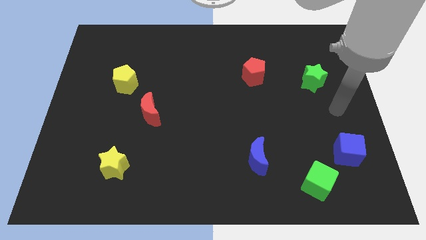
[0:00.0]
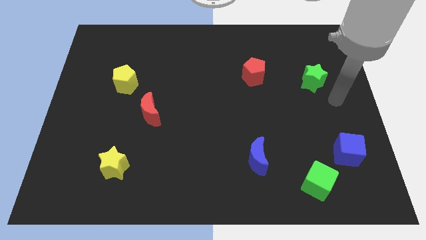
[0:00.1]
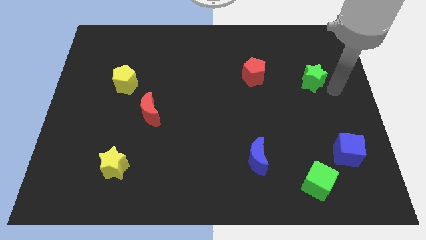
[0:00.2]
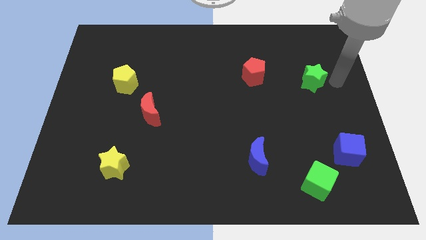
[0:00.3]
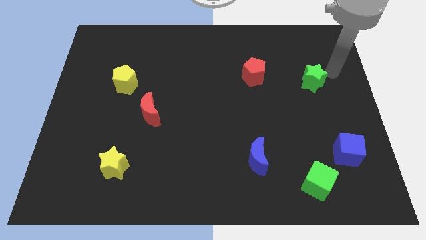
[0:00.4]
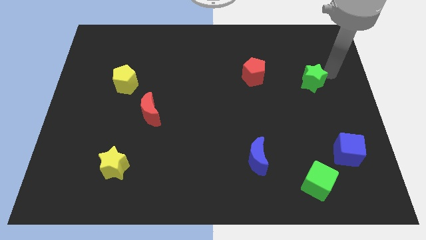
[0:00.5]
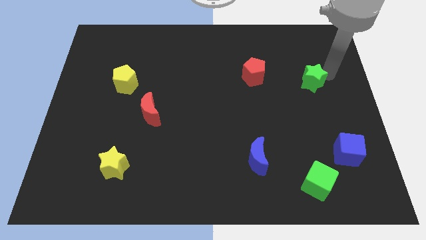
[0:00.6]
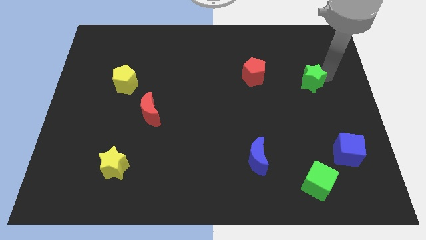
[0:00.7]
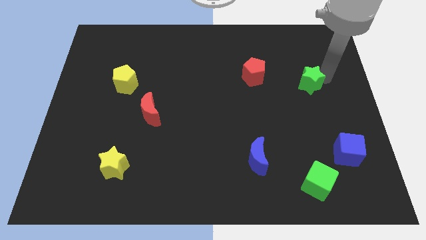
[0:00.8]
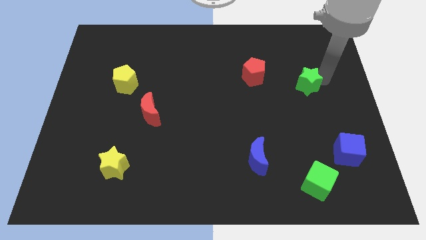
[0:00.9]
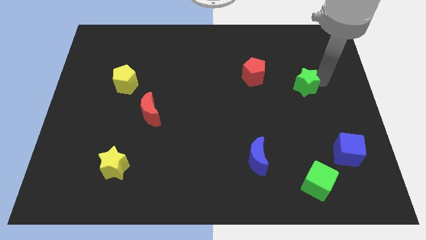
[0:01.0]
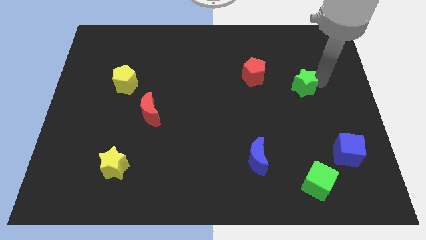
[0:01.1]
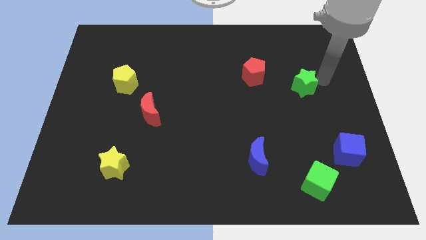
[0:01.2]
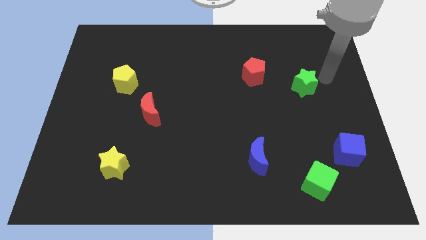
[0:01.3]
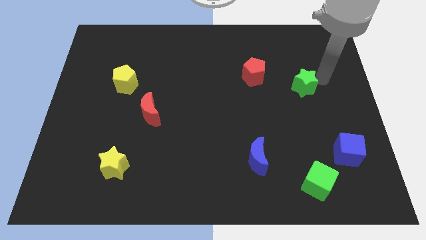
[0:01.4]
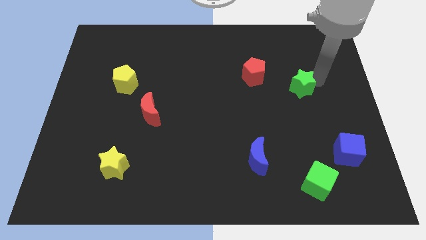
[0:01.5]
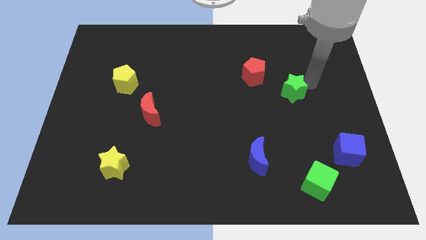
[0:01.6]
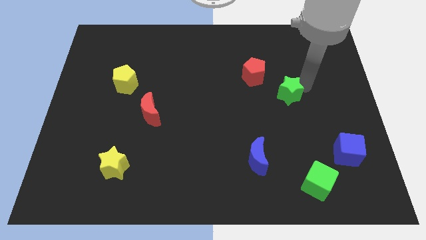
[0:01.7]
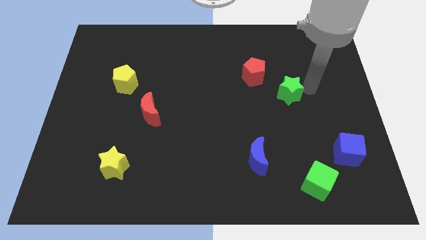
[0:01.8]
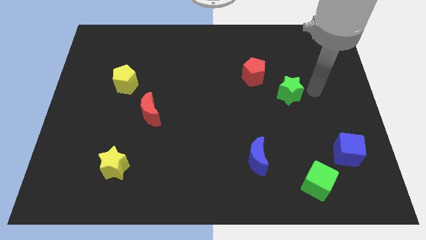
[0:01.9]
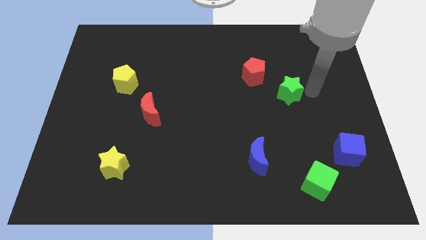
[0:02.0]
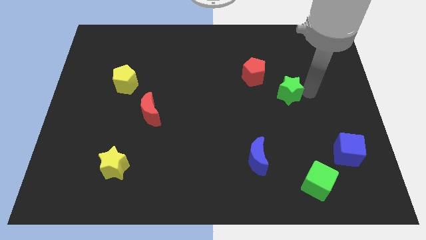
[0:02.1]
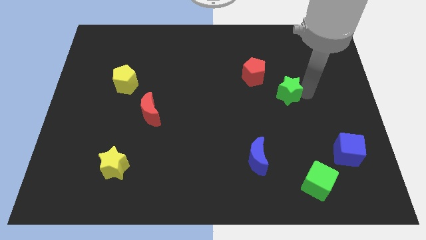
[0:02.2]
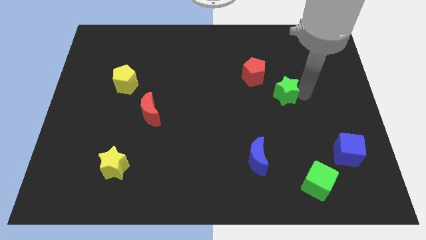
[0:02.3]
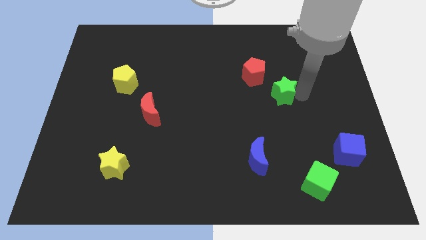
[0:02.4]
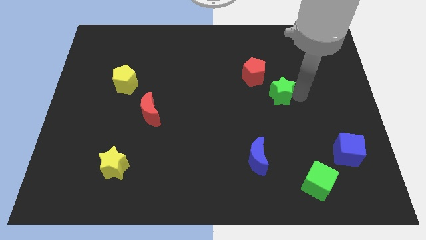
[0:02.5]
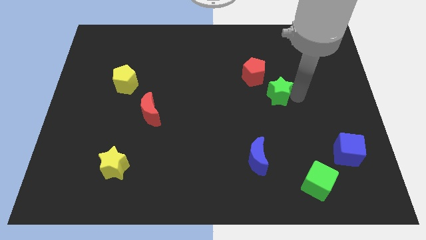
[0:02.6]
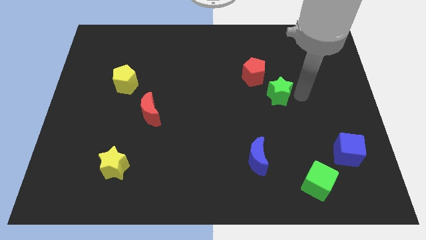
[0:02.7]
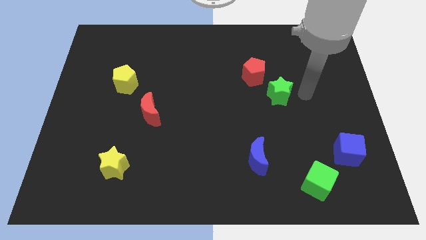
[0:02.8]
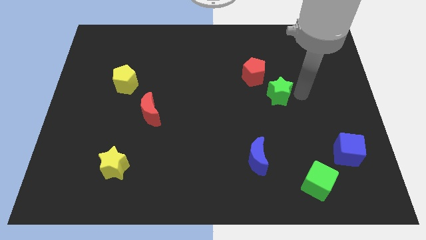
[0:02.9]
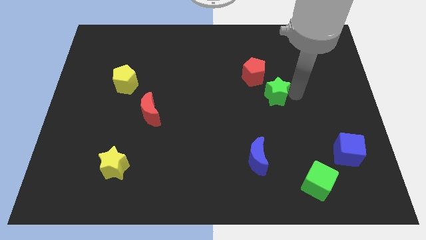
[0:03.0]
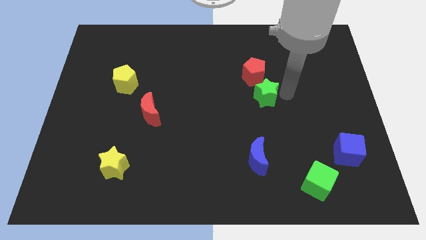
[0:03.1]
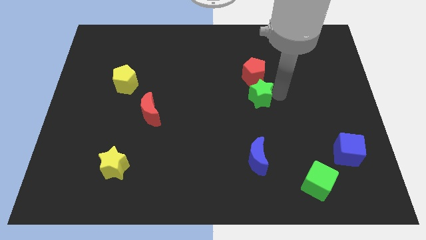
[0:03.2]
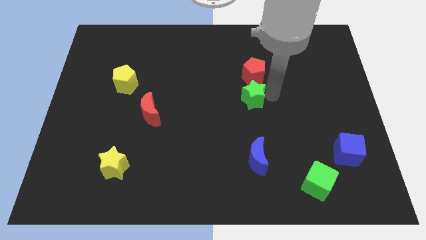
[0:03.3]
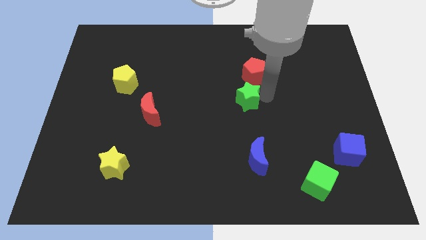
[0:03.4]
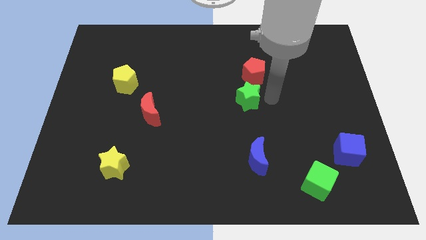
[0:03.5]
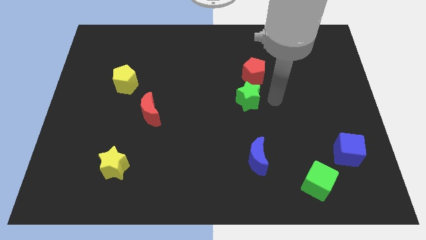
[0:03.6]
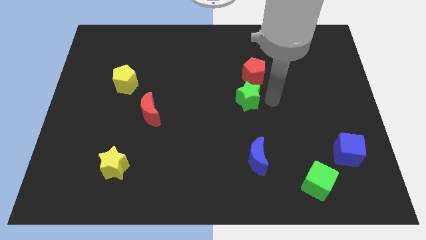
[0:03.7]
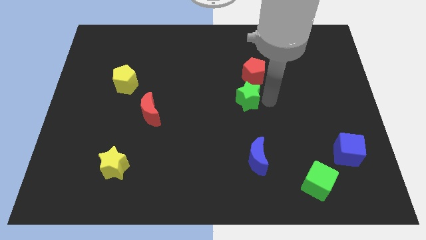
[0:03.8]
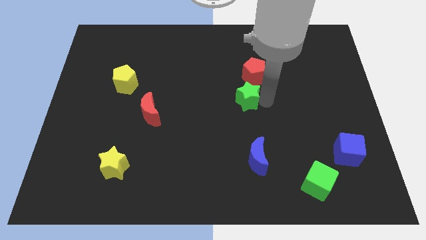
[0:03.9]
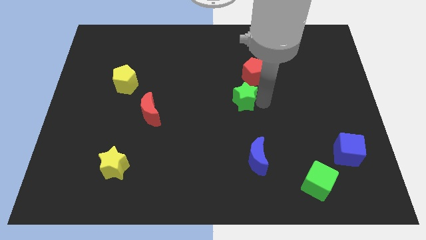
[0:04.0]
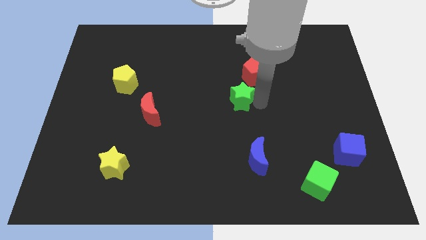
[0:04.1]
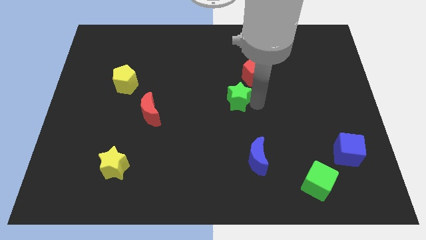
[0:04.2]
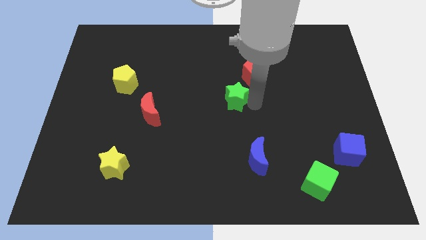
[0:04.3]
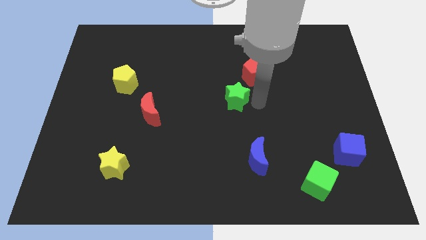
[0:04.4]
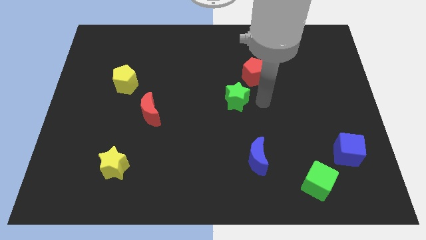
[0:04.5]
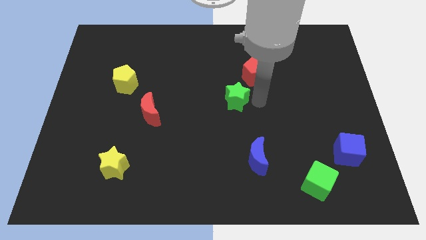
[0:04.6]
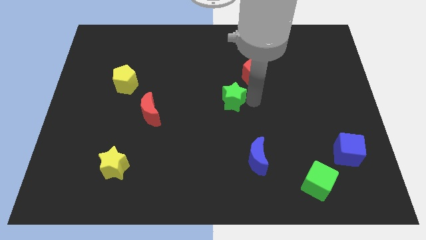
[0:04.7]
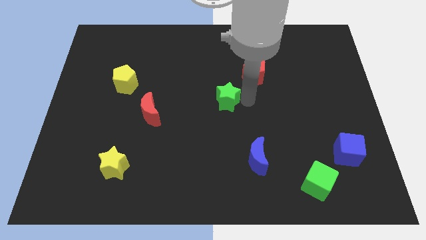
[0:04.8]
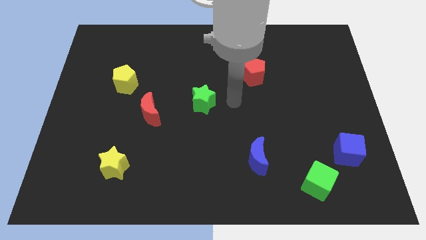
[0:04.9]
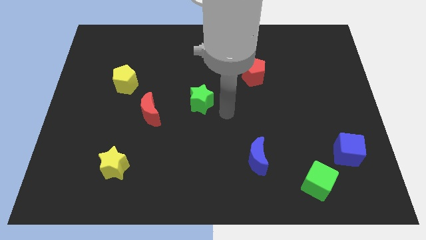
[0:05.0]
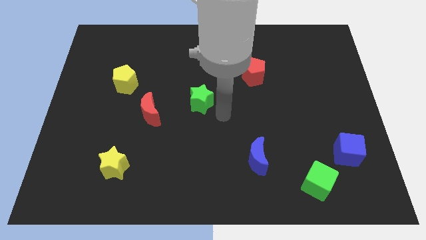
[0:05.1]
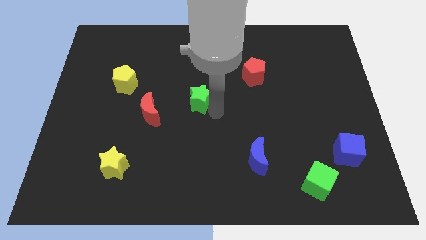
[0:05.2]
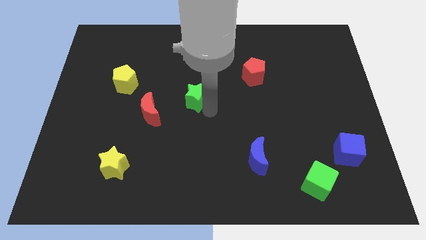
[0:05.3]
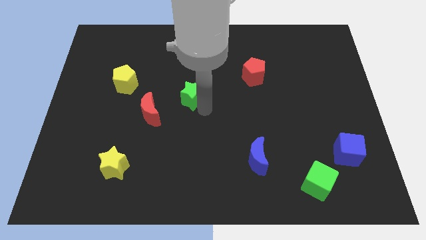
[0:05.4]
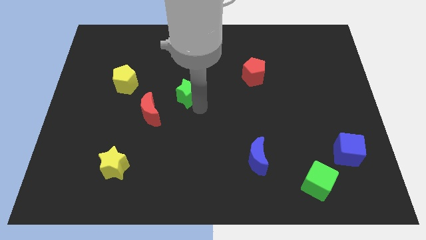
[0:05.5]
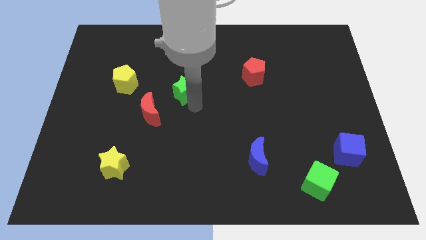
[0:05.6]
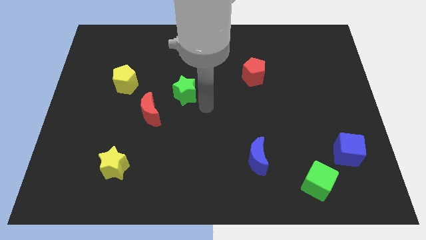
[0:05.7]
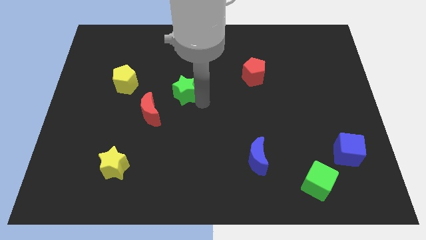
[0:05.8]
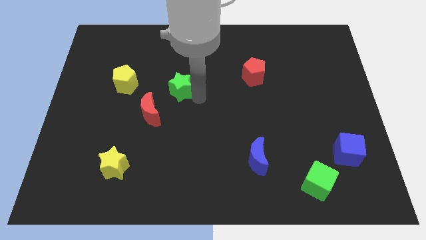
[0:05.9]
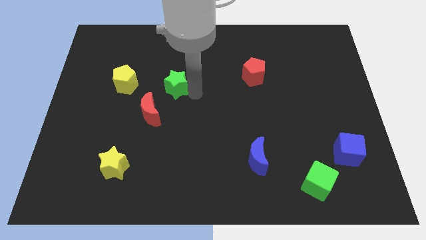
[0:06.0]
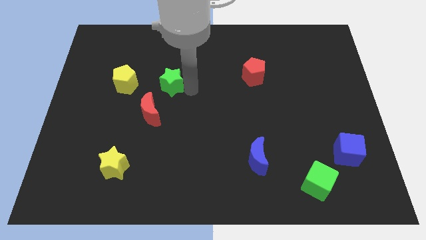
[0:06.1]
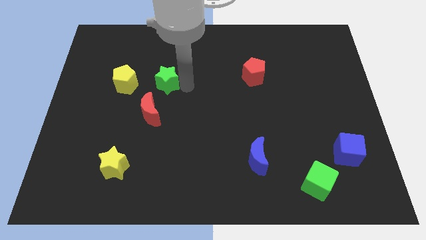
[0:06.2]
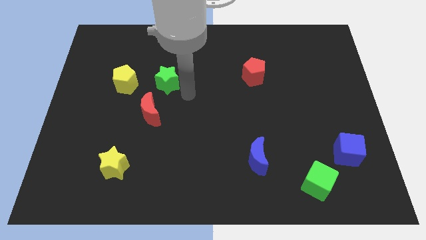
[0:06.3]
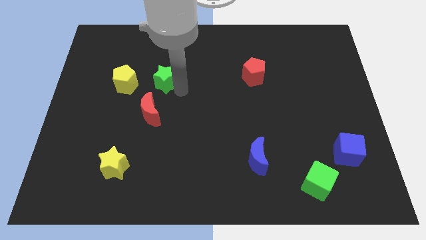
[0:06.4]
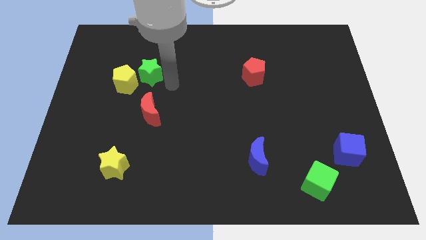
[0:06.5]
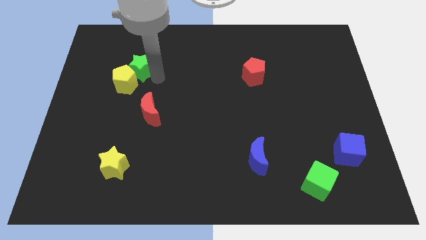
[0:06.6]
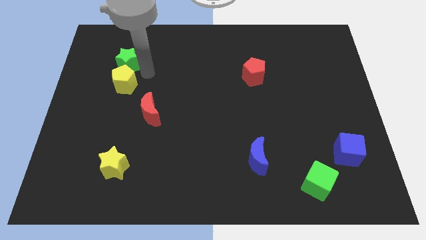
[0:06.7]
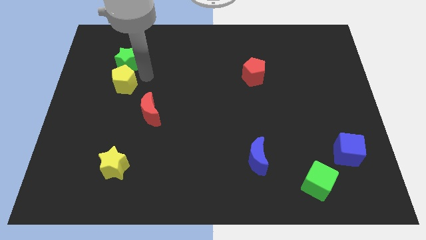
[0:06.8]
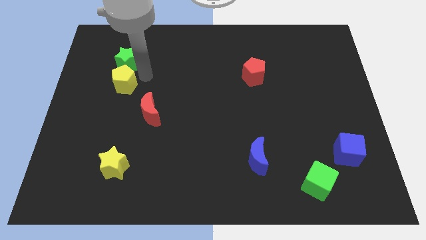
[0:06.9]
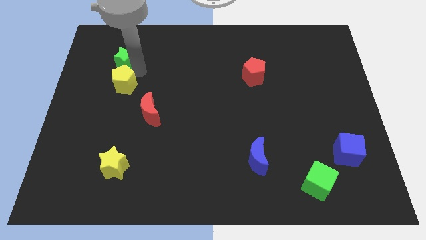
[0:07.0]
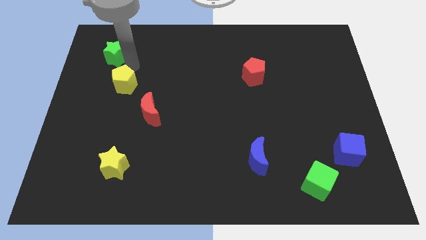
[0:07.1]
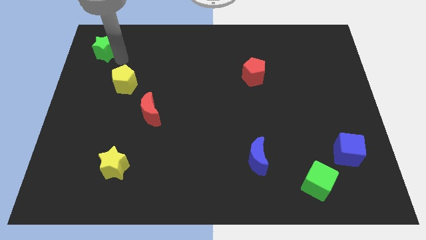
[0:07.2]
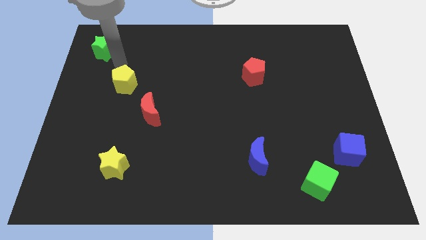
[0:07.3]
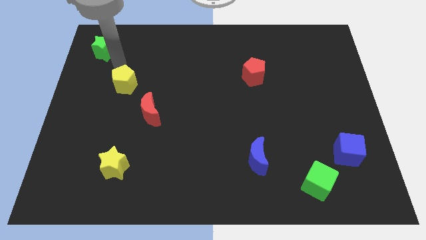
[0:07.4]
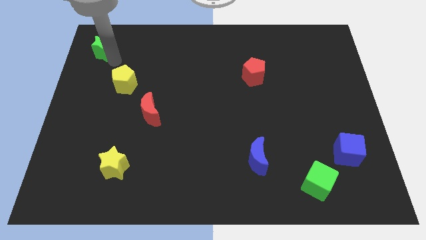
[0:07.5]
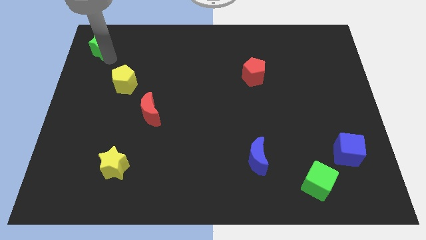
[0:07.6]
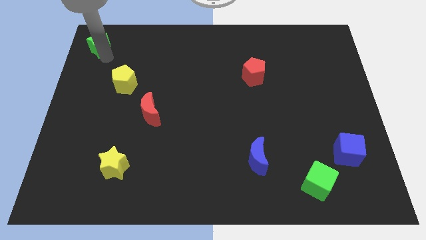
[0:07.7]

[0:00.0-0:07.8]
put the green star to the top left corner
